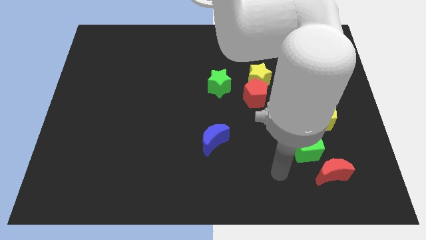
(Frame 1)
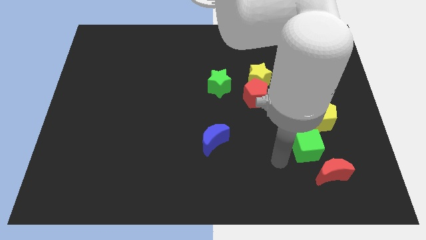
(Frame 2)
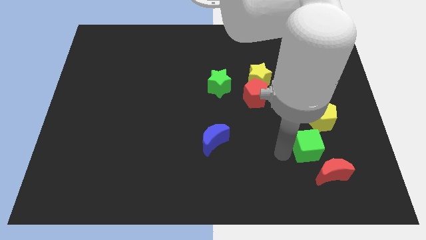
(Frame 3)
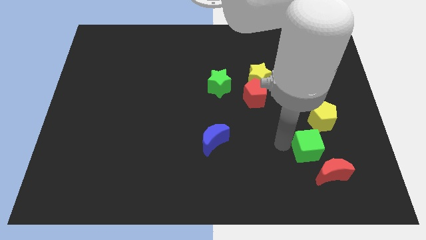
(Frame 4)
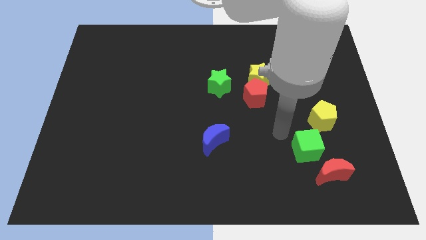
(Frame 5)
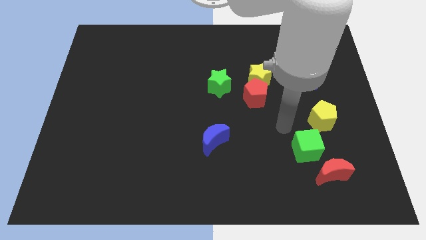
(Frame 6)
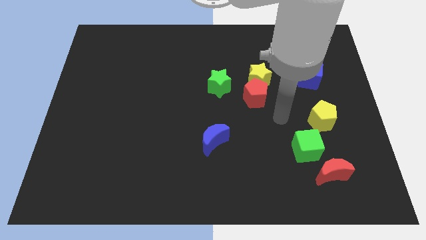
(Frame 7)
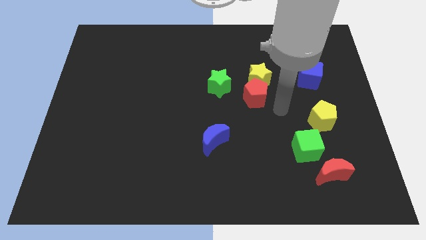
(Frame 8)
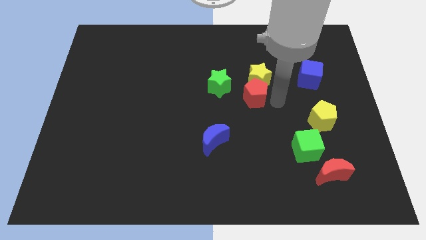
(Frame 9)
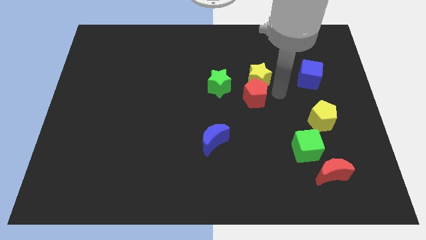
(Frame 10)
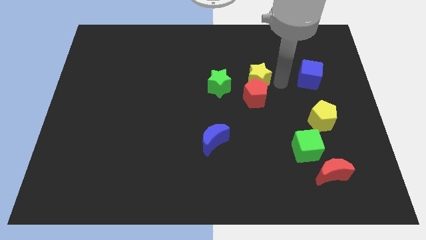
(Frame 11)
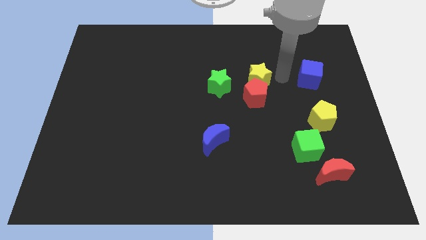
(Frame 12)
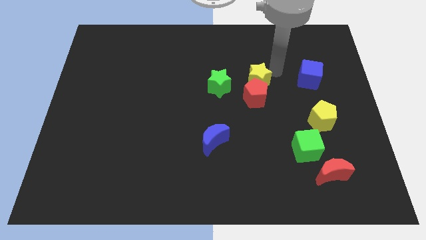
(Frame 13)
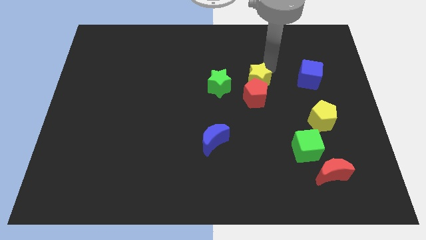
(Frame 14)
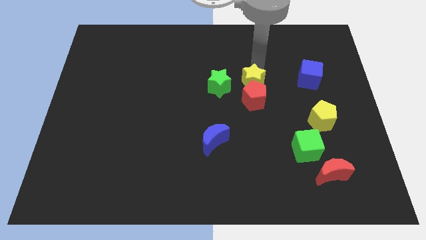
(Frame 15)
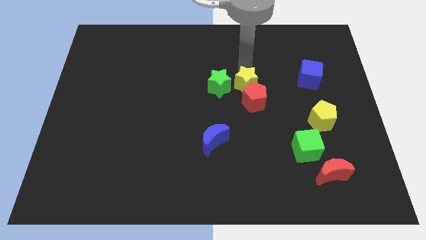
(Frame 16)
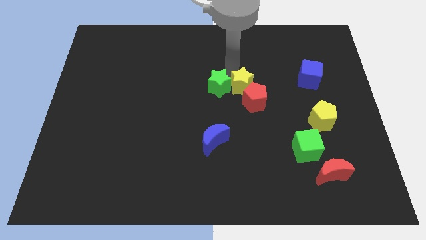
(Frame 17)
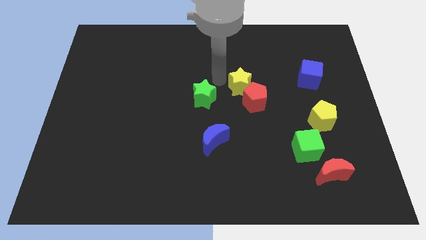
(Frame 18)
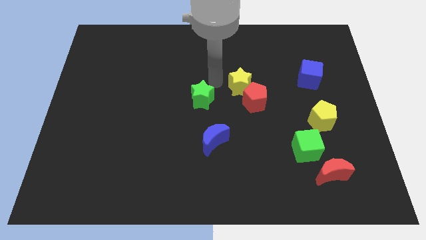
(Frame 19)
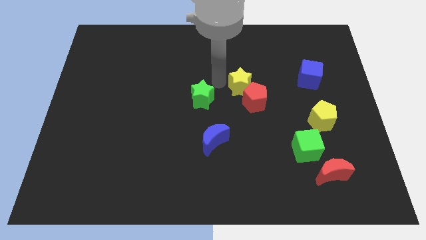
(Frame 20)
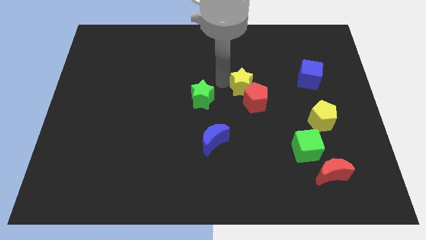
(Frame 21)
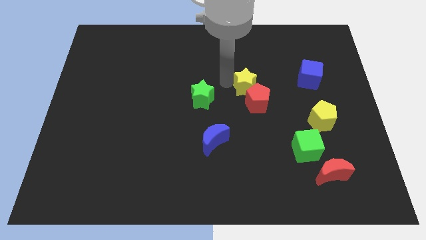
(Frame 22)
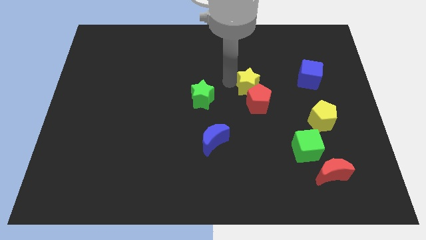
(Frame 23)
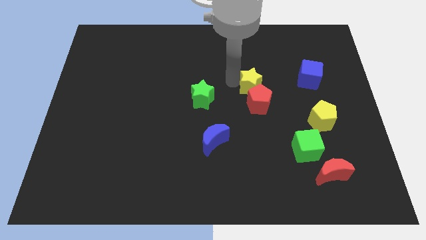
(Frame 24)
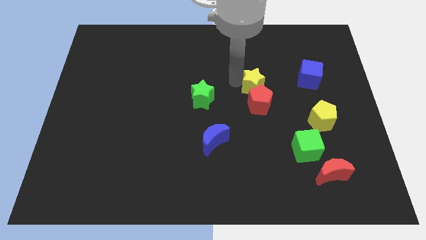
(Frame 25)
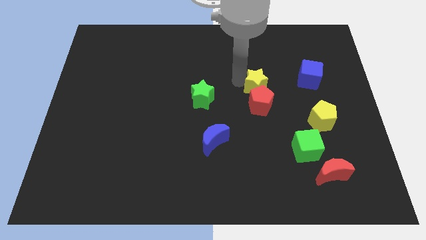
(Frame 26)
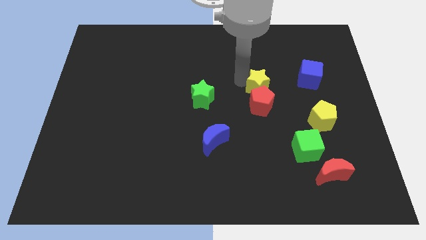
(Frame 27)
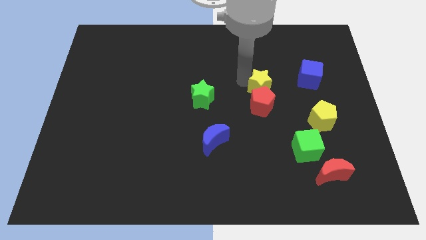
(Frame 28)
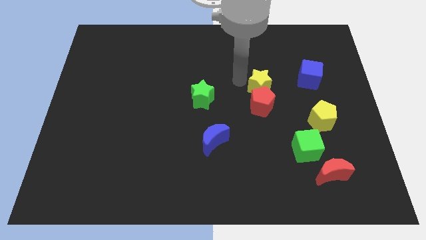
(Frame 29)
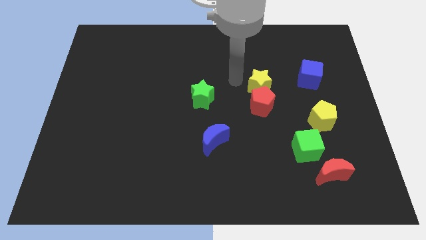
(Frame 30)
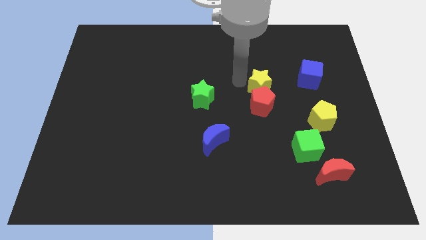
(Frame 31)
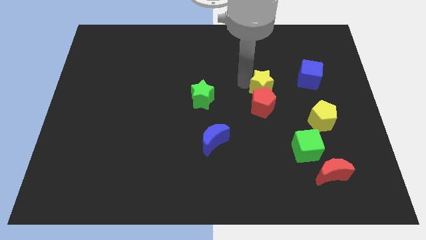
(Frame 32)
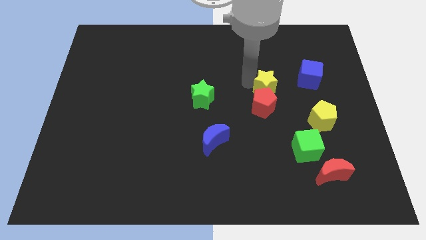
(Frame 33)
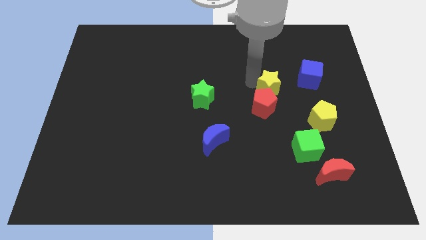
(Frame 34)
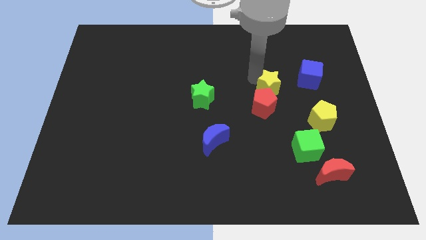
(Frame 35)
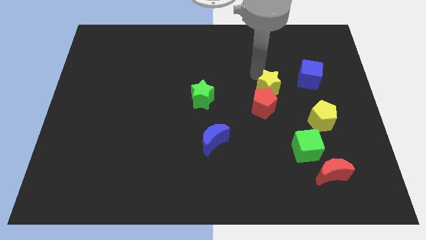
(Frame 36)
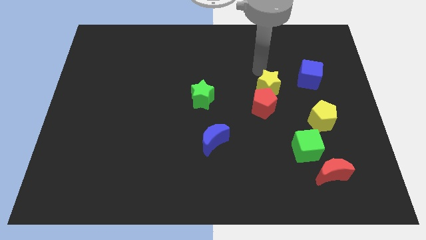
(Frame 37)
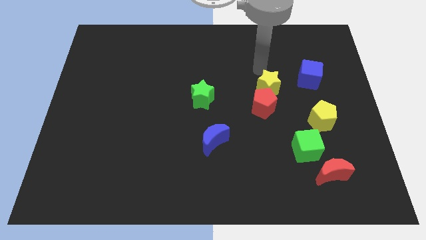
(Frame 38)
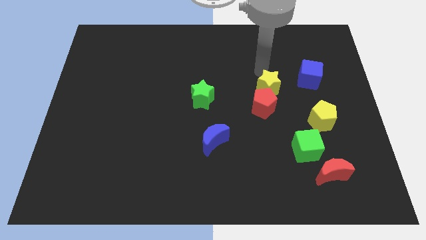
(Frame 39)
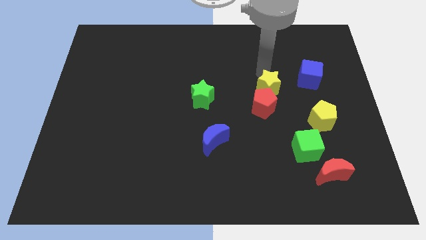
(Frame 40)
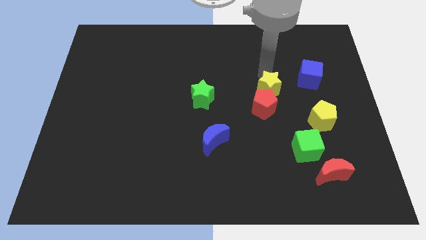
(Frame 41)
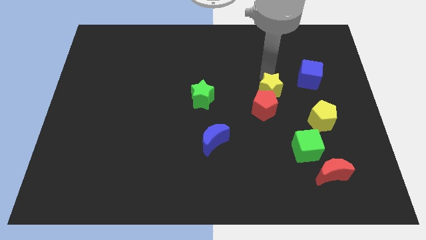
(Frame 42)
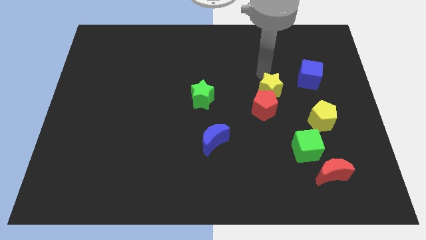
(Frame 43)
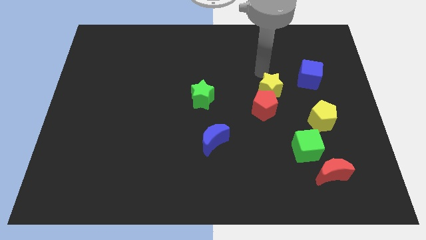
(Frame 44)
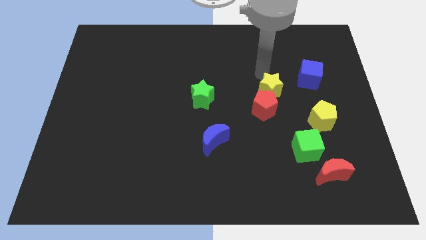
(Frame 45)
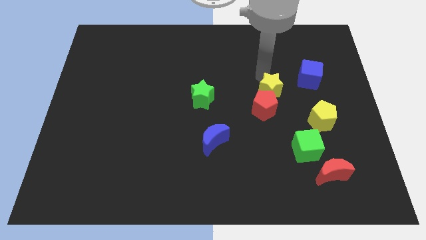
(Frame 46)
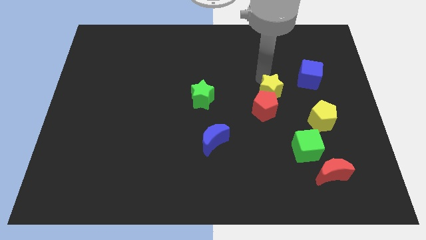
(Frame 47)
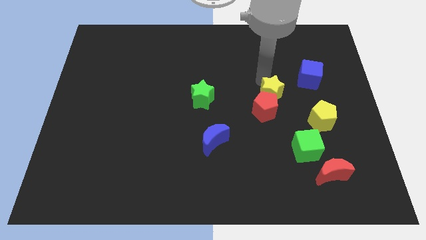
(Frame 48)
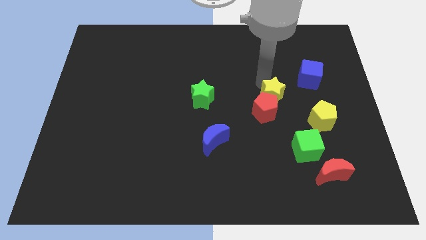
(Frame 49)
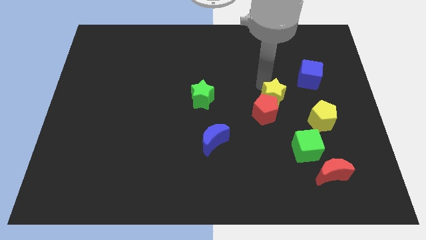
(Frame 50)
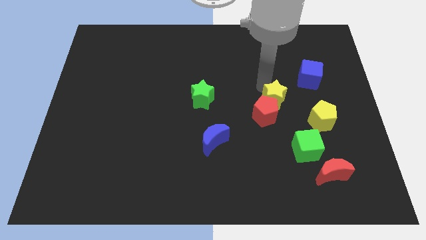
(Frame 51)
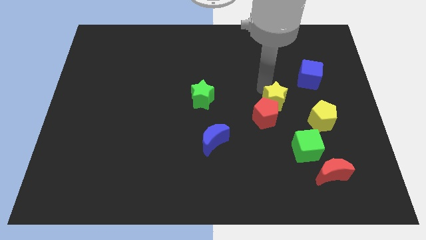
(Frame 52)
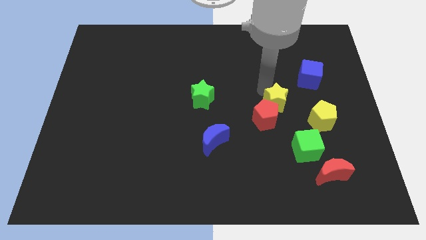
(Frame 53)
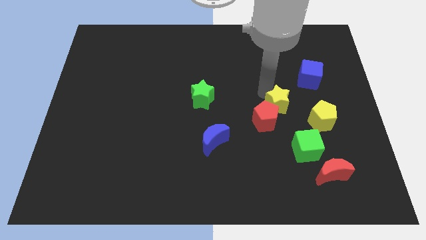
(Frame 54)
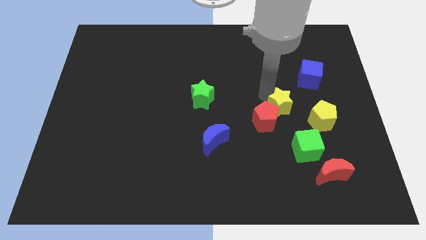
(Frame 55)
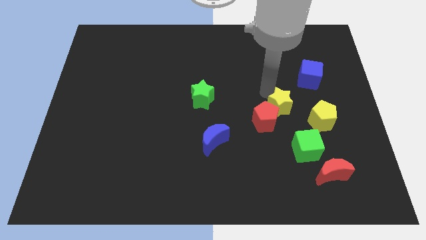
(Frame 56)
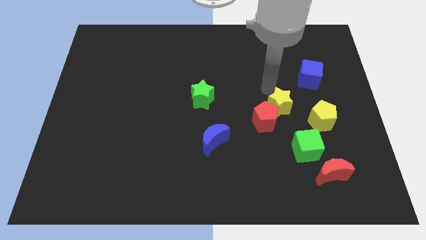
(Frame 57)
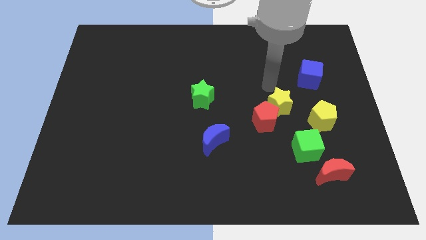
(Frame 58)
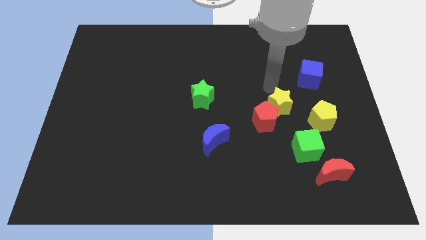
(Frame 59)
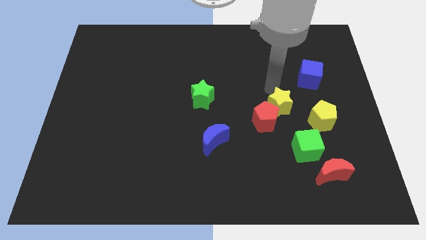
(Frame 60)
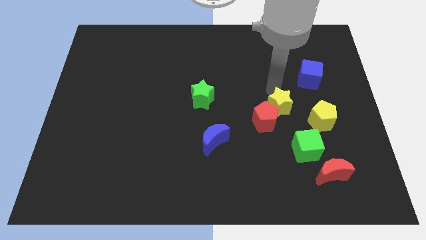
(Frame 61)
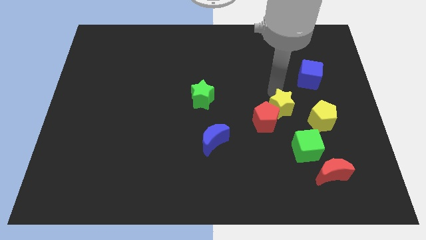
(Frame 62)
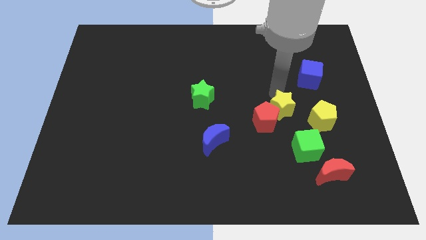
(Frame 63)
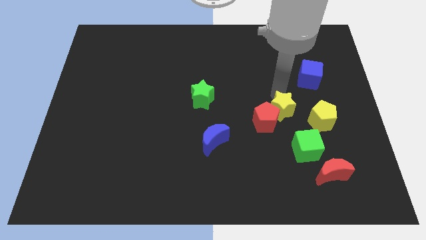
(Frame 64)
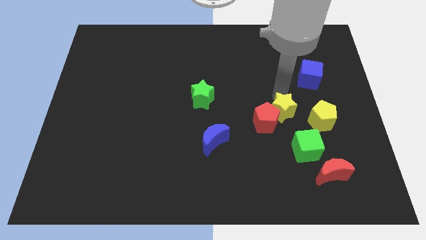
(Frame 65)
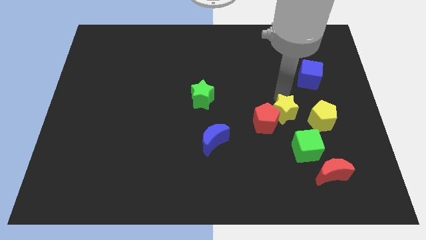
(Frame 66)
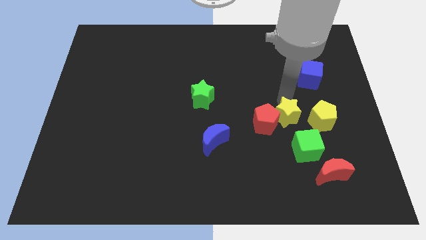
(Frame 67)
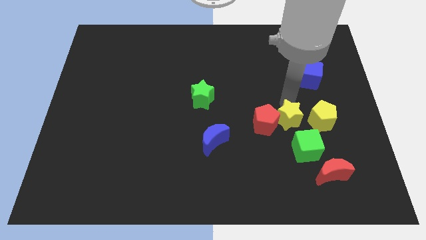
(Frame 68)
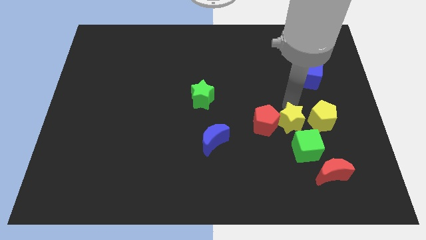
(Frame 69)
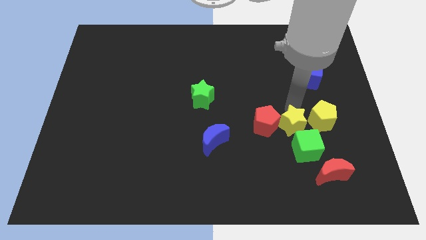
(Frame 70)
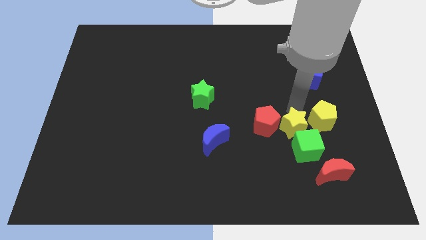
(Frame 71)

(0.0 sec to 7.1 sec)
move the yellow star to the green cube
